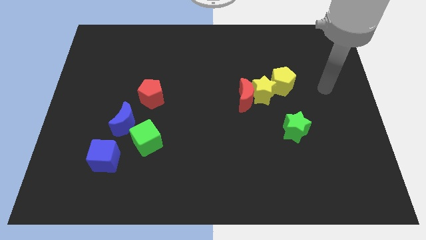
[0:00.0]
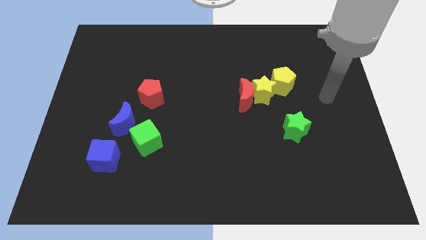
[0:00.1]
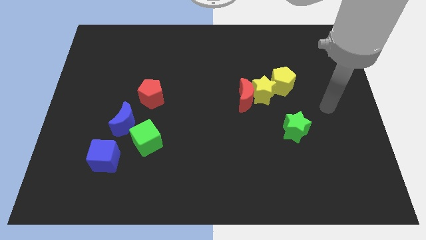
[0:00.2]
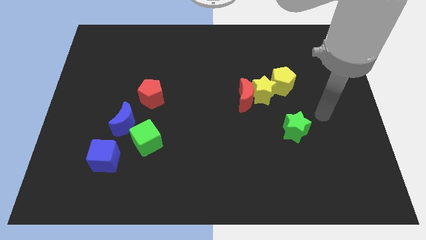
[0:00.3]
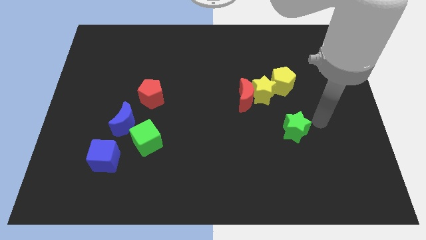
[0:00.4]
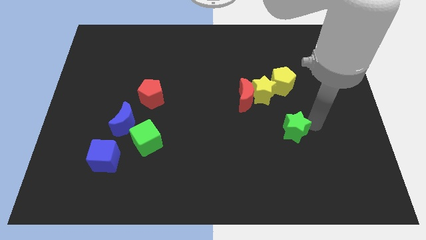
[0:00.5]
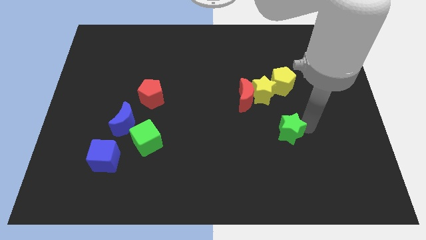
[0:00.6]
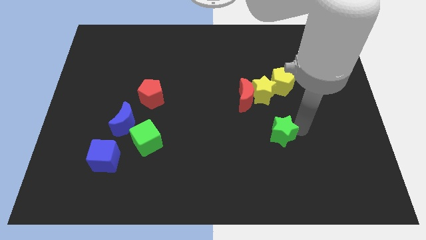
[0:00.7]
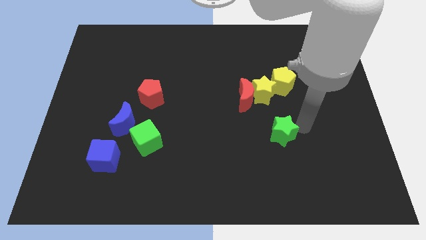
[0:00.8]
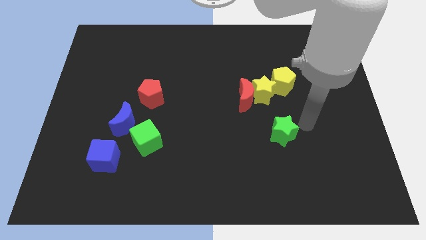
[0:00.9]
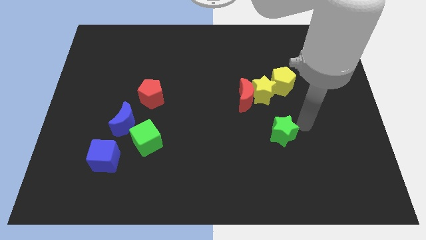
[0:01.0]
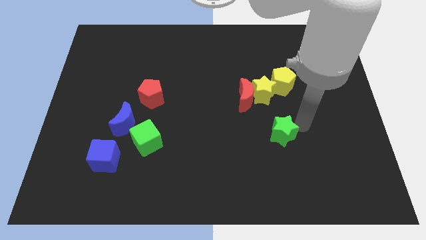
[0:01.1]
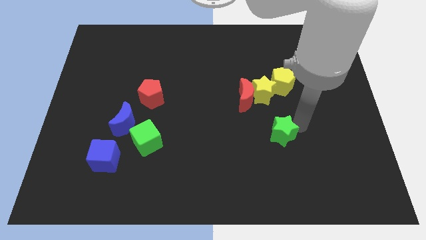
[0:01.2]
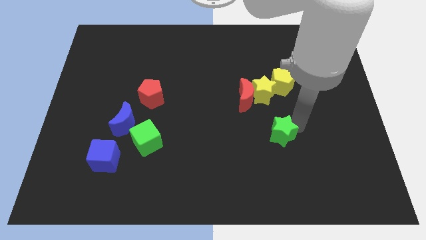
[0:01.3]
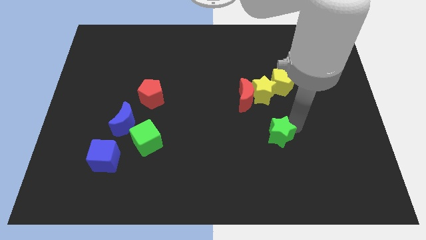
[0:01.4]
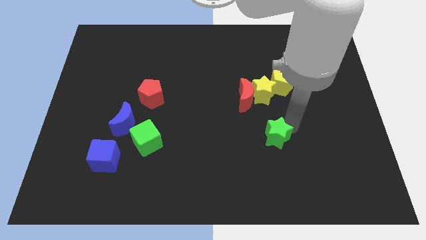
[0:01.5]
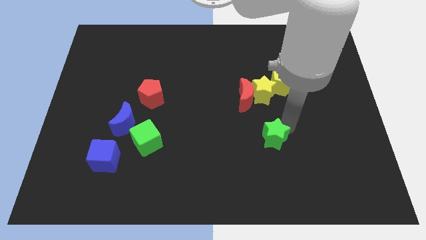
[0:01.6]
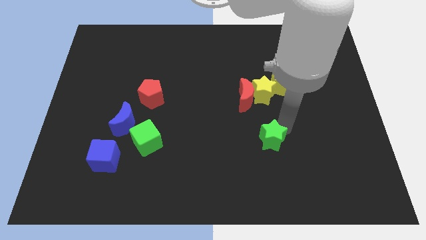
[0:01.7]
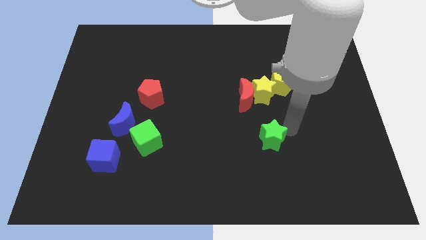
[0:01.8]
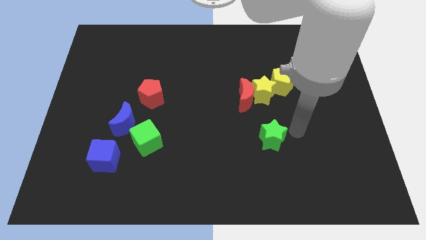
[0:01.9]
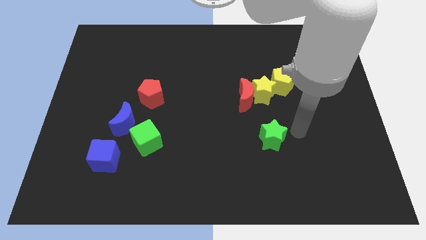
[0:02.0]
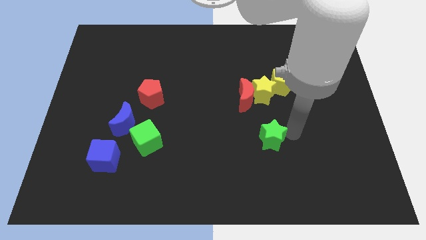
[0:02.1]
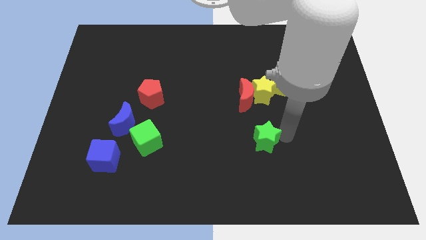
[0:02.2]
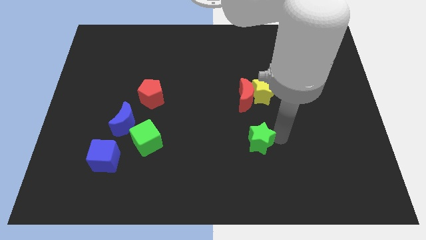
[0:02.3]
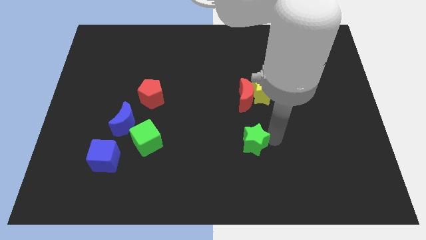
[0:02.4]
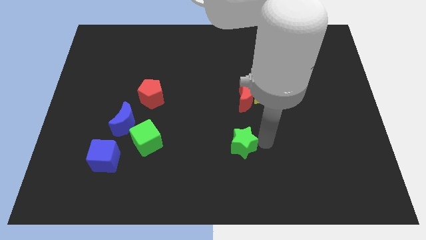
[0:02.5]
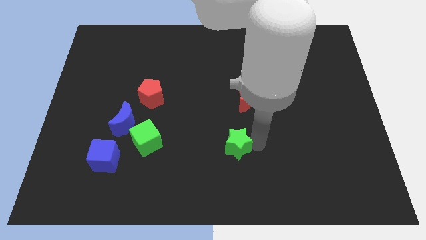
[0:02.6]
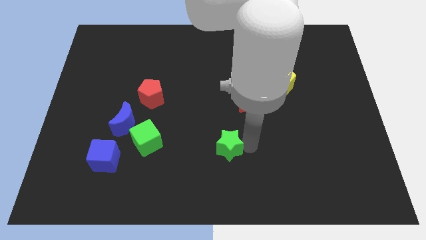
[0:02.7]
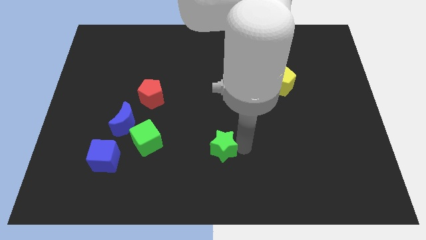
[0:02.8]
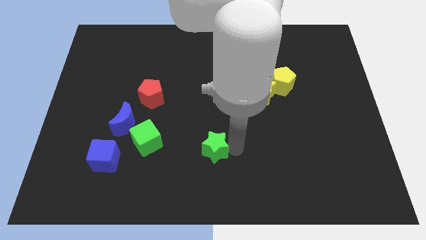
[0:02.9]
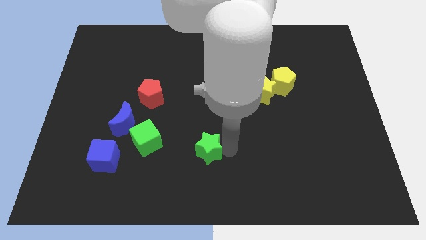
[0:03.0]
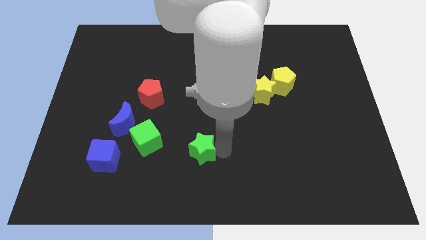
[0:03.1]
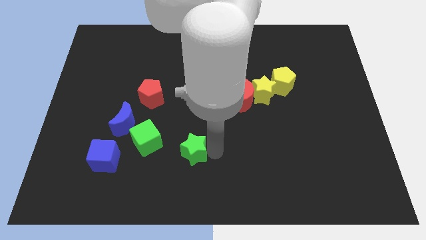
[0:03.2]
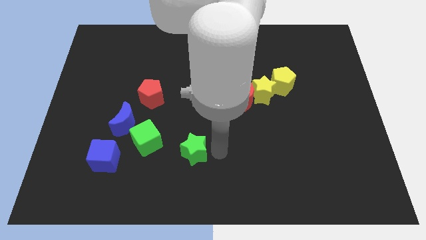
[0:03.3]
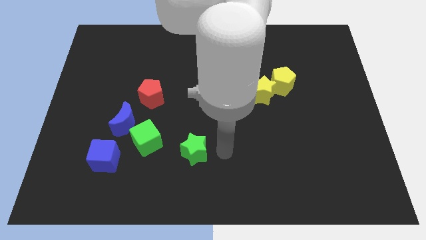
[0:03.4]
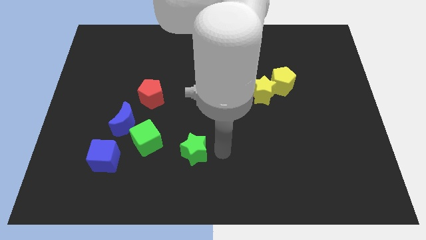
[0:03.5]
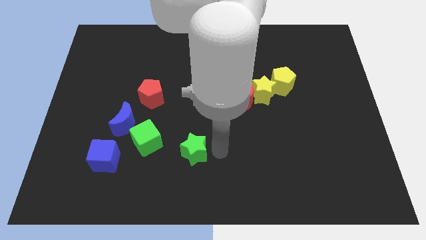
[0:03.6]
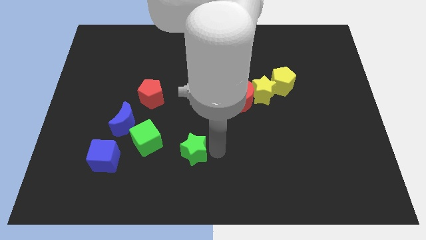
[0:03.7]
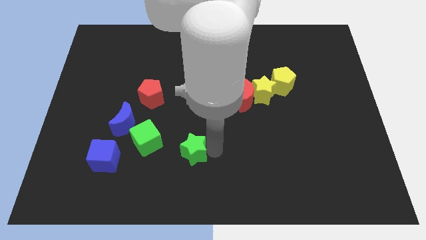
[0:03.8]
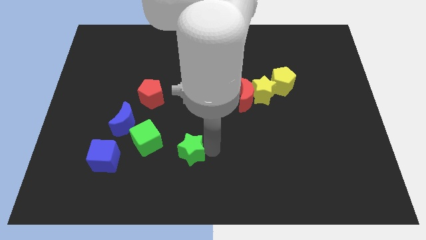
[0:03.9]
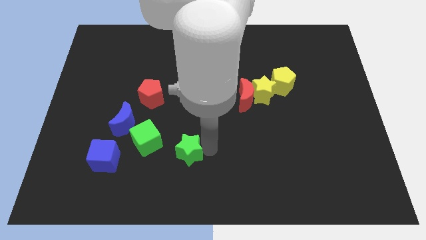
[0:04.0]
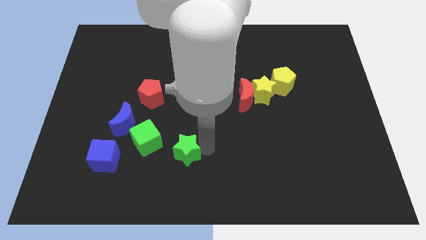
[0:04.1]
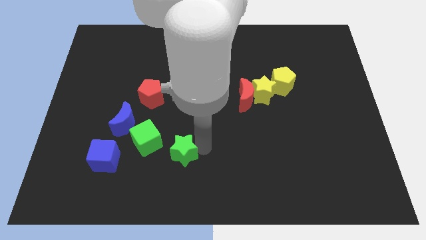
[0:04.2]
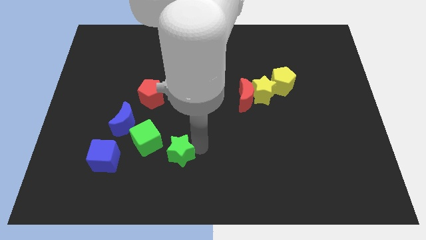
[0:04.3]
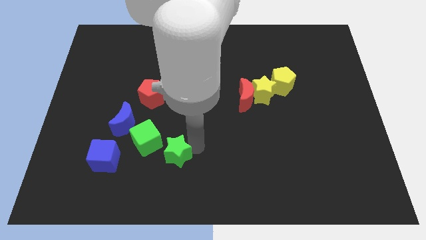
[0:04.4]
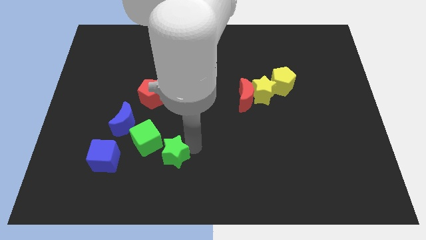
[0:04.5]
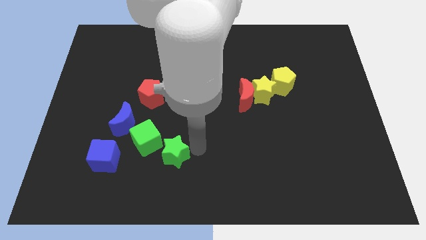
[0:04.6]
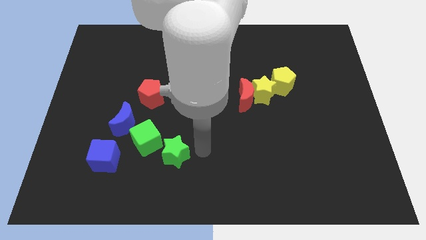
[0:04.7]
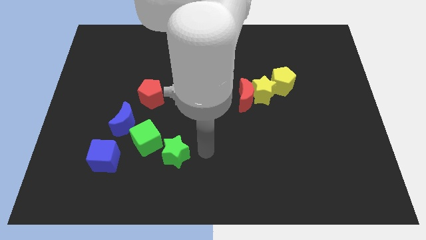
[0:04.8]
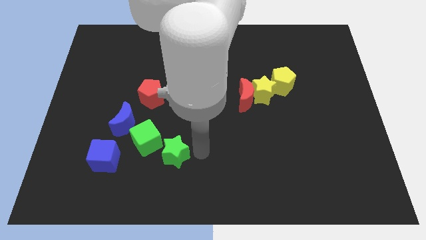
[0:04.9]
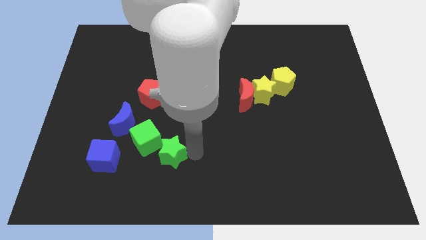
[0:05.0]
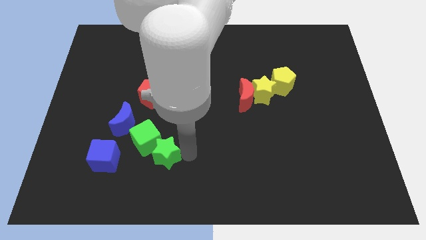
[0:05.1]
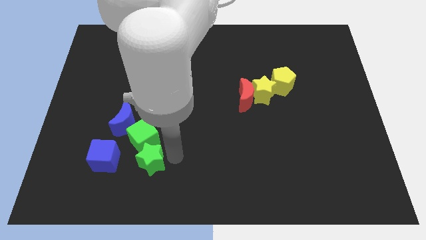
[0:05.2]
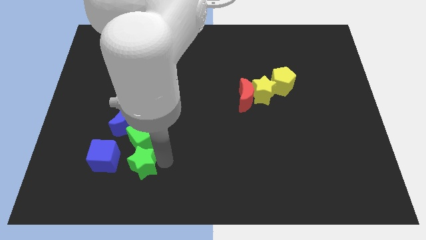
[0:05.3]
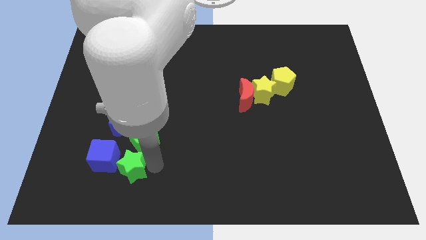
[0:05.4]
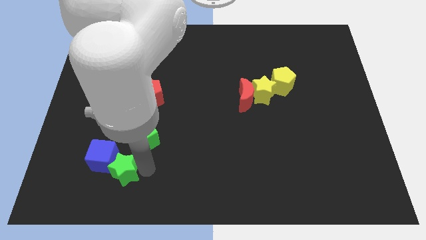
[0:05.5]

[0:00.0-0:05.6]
slide the green star next to the blue cube

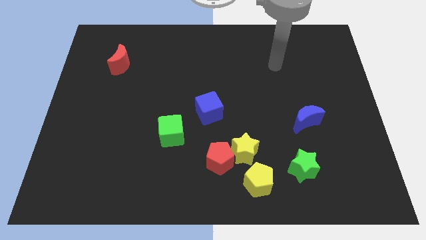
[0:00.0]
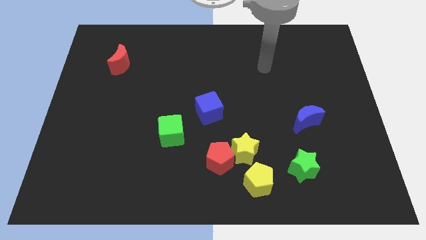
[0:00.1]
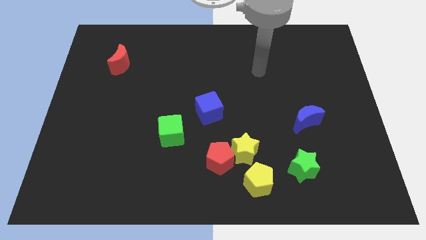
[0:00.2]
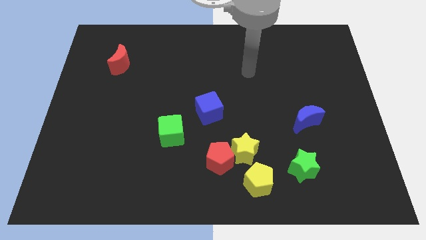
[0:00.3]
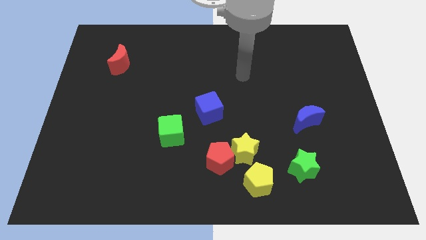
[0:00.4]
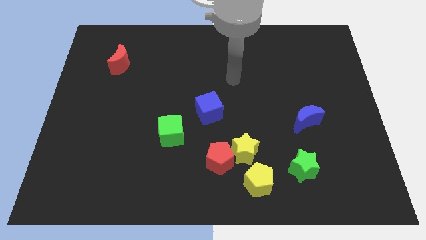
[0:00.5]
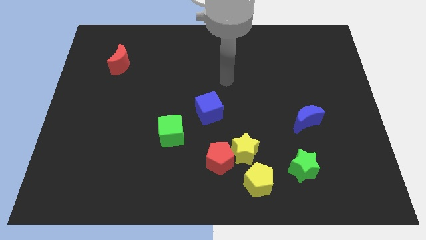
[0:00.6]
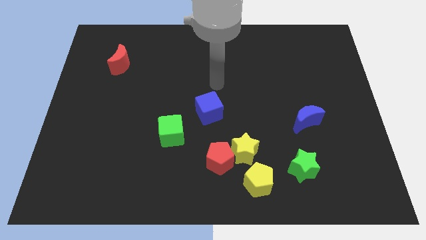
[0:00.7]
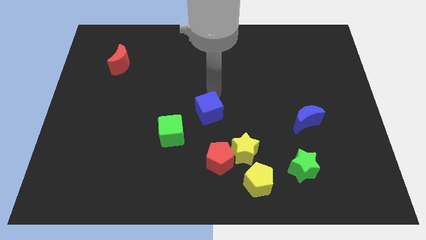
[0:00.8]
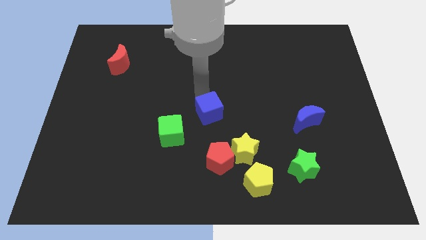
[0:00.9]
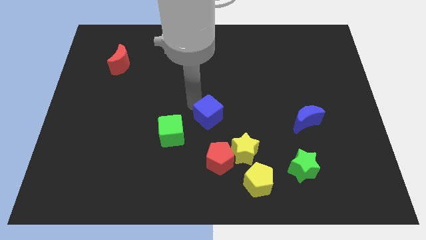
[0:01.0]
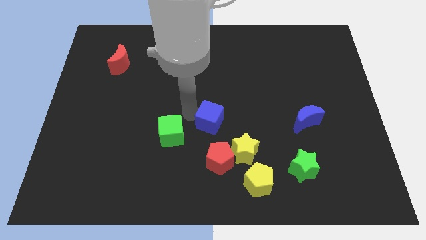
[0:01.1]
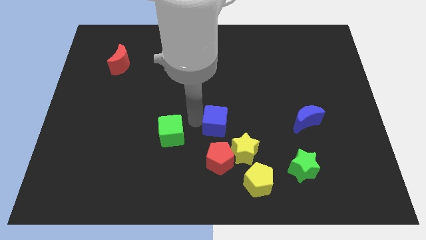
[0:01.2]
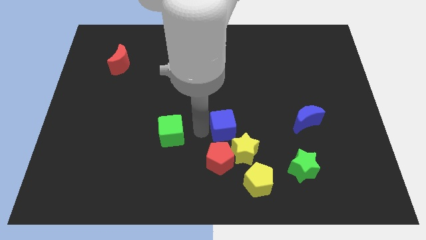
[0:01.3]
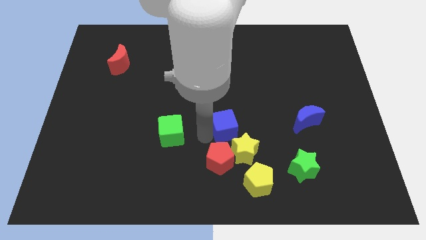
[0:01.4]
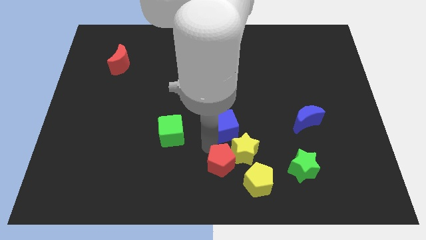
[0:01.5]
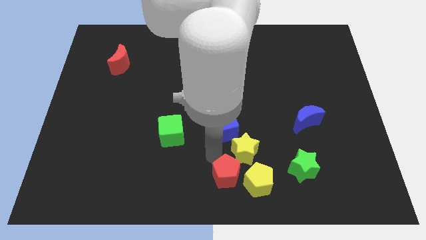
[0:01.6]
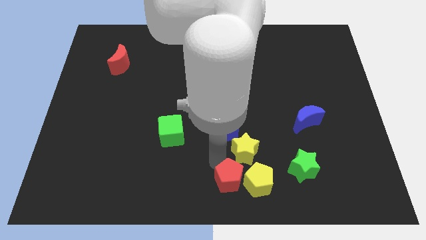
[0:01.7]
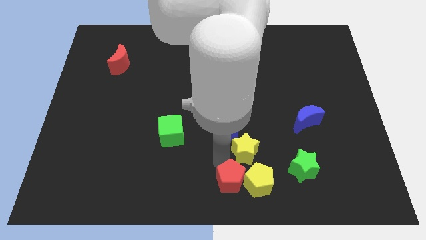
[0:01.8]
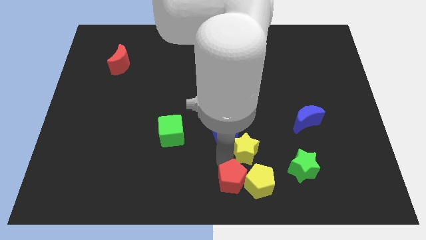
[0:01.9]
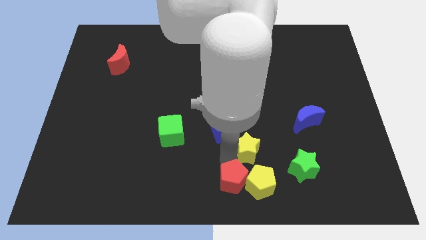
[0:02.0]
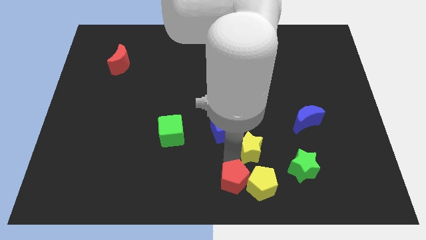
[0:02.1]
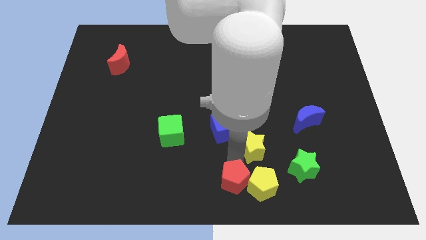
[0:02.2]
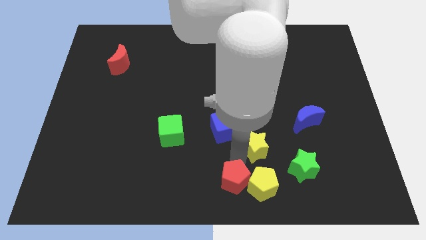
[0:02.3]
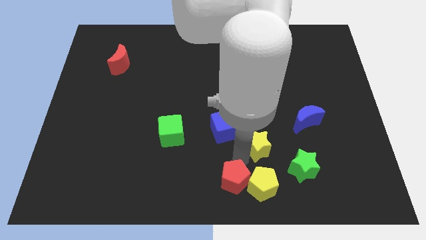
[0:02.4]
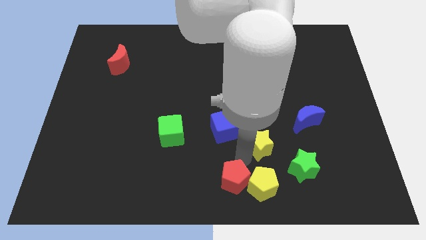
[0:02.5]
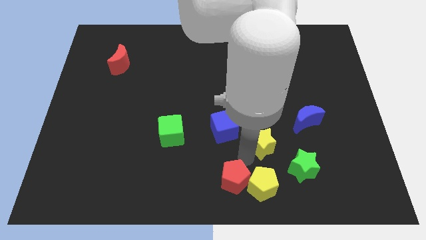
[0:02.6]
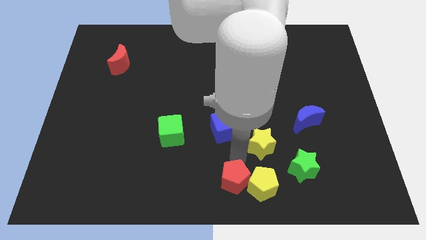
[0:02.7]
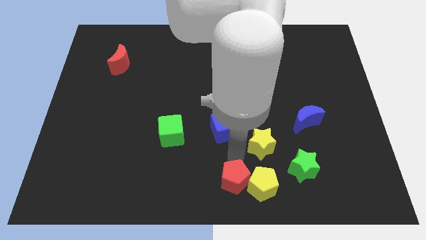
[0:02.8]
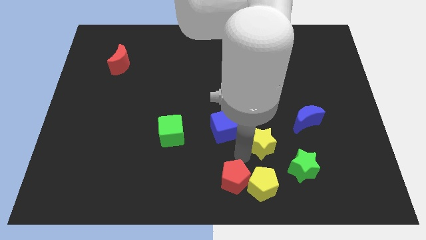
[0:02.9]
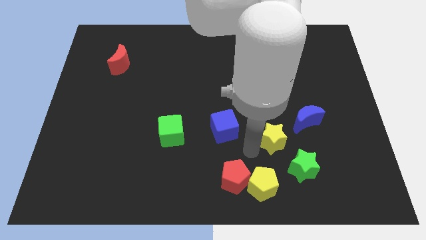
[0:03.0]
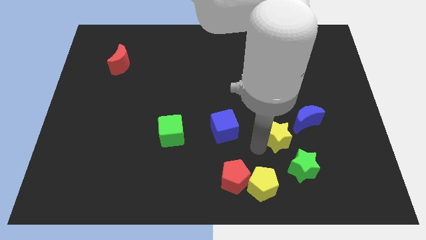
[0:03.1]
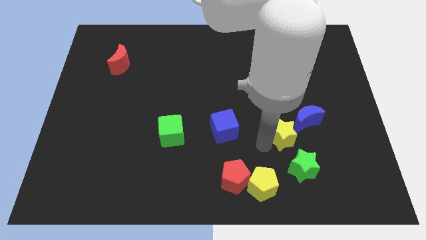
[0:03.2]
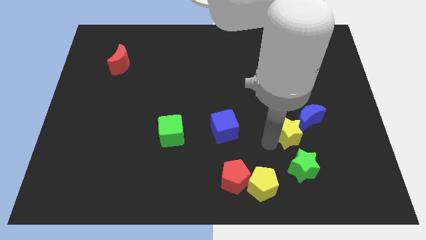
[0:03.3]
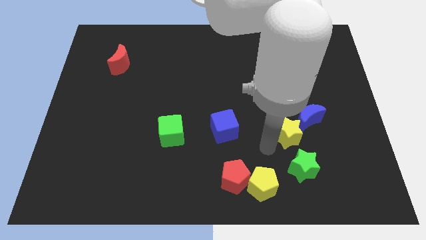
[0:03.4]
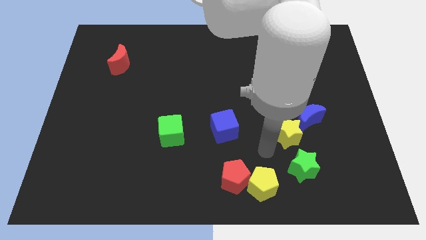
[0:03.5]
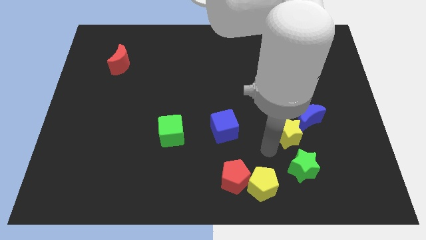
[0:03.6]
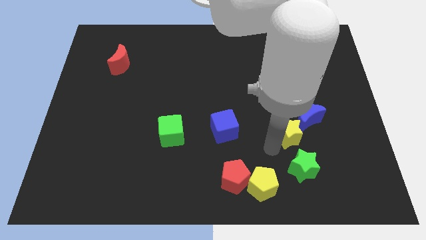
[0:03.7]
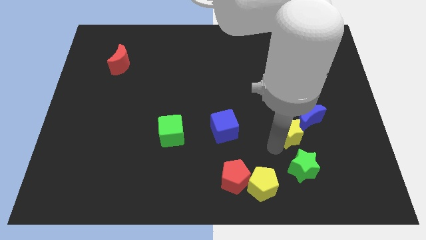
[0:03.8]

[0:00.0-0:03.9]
slide the yellow star next to the blue moon
